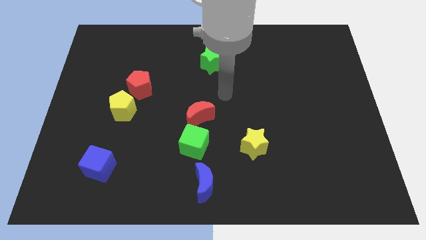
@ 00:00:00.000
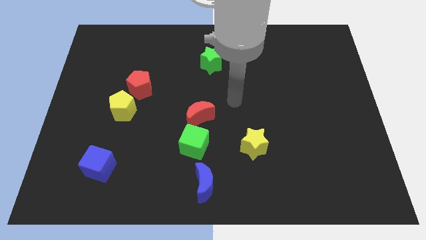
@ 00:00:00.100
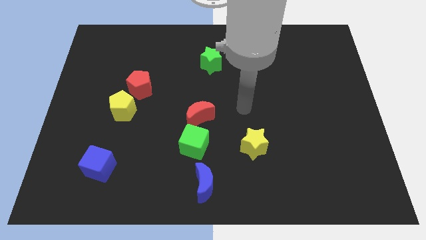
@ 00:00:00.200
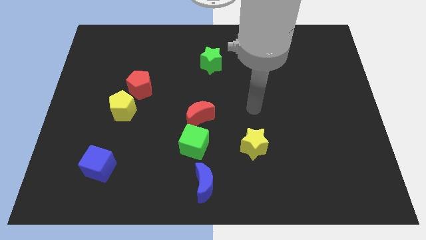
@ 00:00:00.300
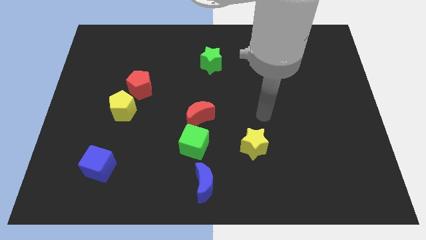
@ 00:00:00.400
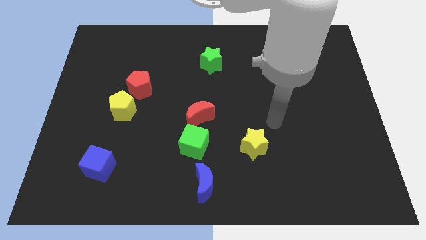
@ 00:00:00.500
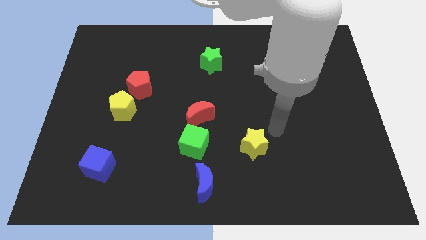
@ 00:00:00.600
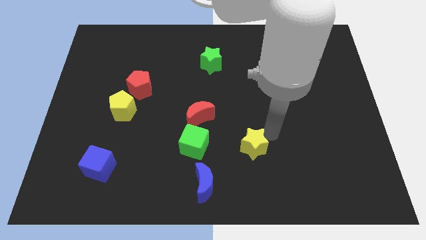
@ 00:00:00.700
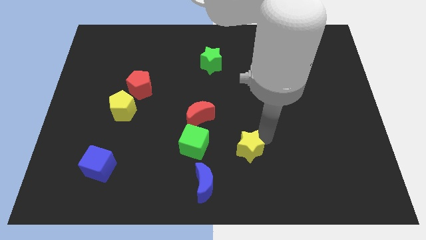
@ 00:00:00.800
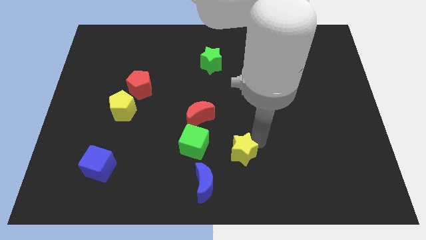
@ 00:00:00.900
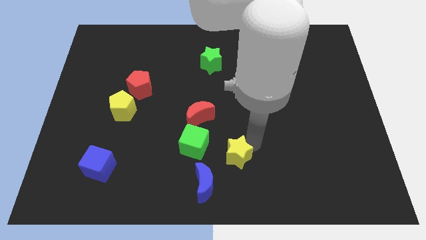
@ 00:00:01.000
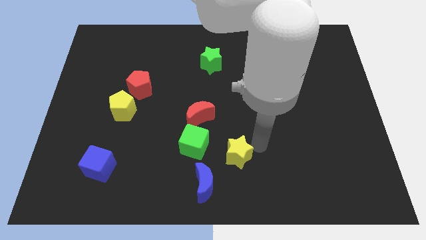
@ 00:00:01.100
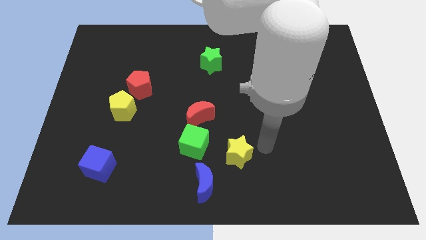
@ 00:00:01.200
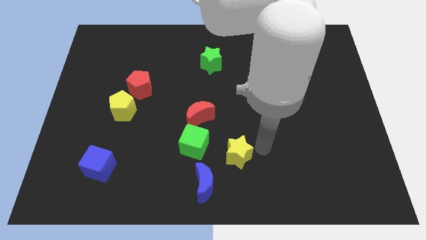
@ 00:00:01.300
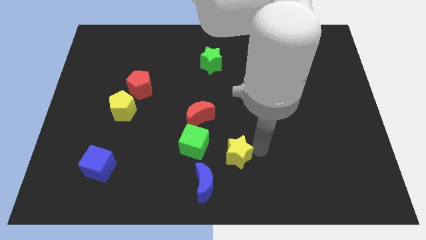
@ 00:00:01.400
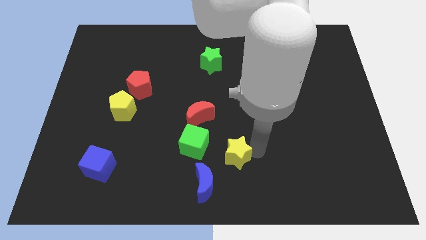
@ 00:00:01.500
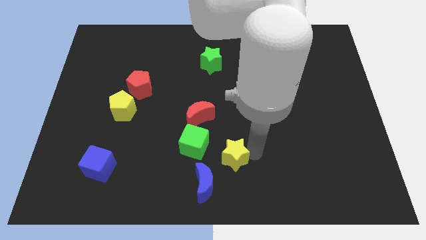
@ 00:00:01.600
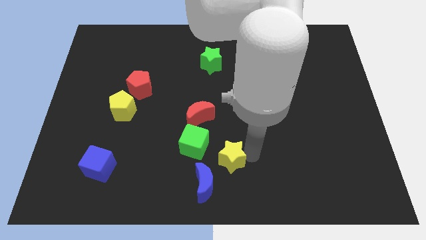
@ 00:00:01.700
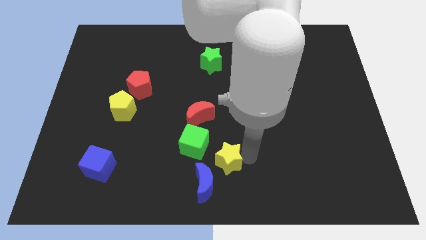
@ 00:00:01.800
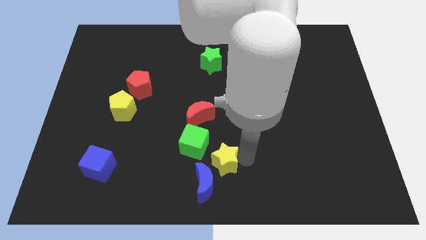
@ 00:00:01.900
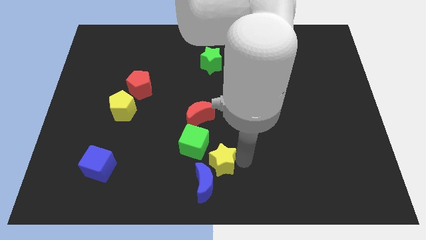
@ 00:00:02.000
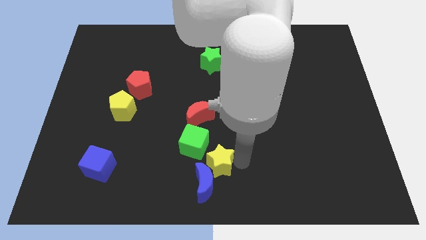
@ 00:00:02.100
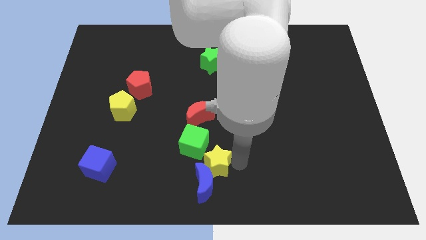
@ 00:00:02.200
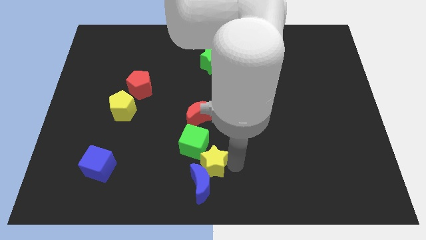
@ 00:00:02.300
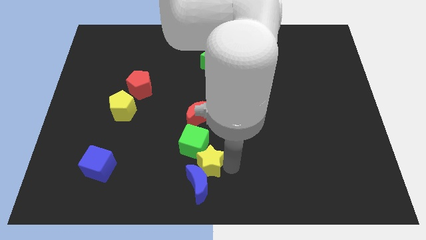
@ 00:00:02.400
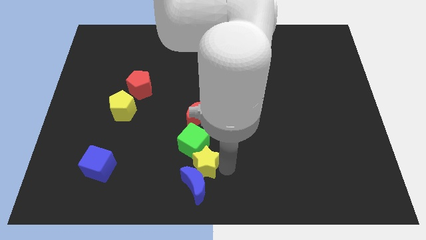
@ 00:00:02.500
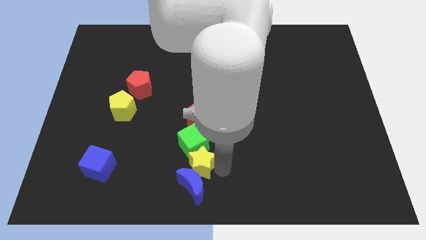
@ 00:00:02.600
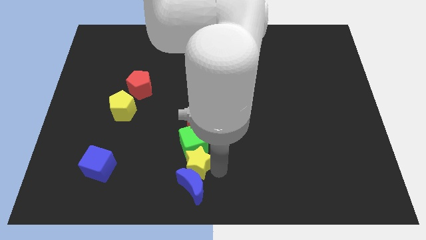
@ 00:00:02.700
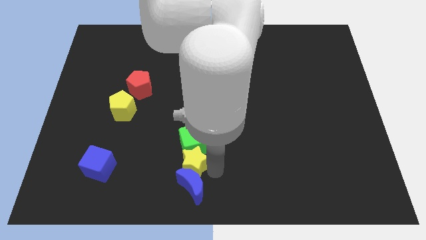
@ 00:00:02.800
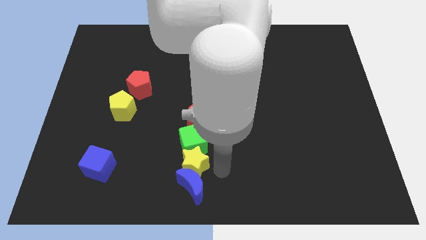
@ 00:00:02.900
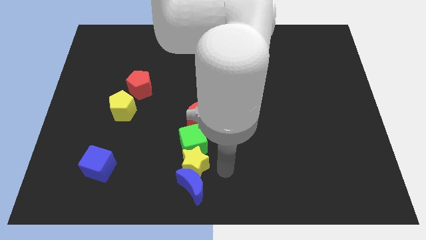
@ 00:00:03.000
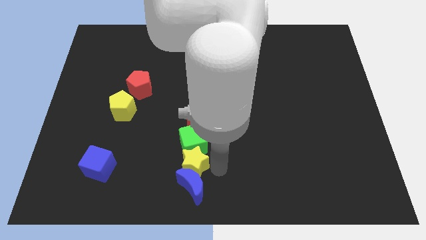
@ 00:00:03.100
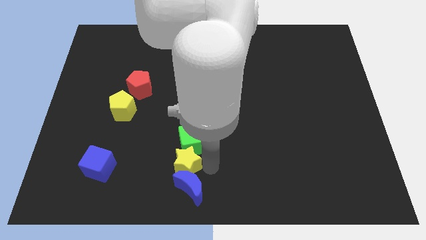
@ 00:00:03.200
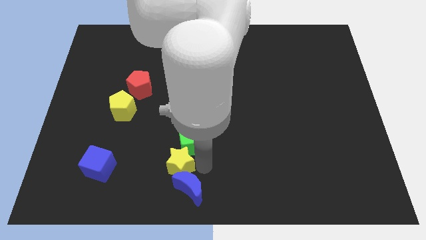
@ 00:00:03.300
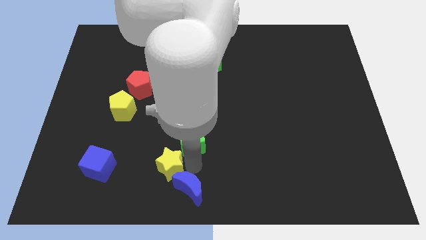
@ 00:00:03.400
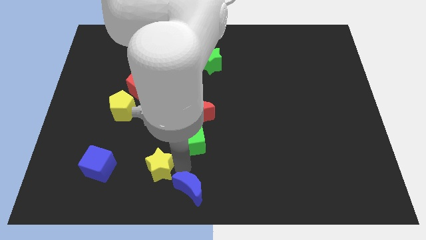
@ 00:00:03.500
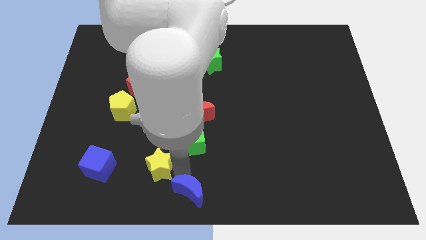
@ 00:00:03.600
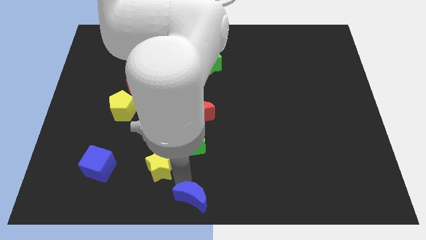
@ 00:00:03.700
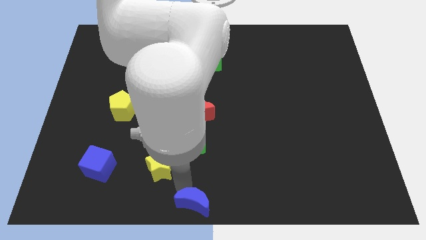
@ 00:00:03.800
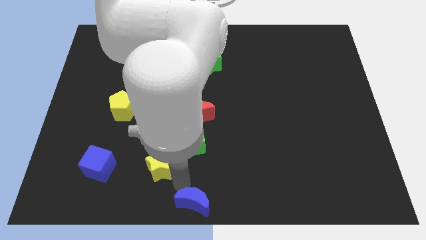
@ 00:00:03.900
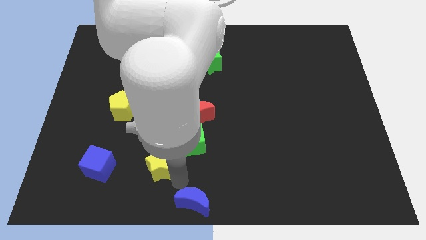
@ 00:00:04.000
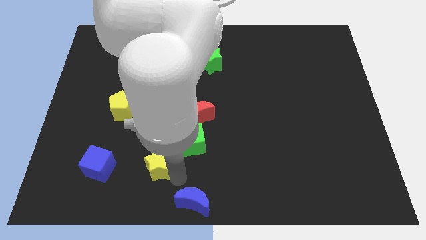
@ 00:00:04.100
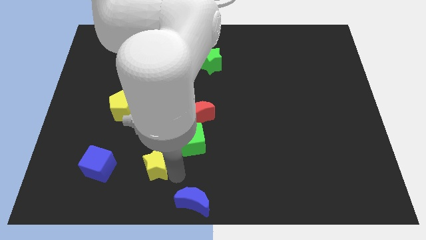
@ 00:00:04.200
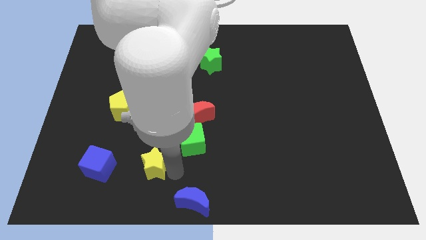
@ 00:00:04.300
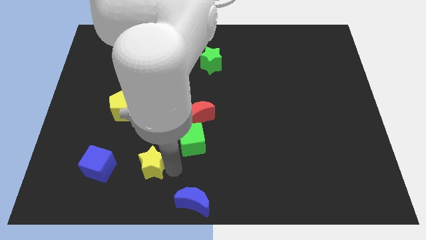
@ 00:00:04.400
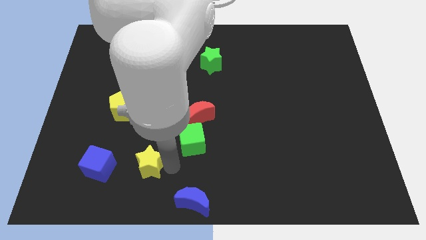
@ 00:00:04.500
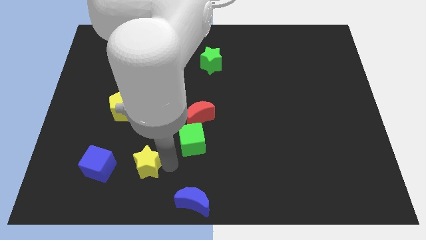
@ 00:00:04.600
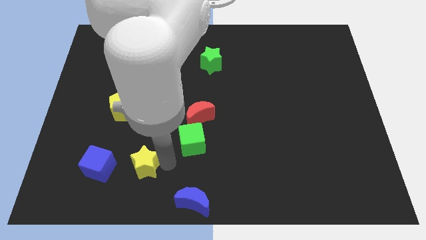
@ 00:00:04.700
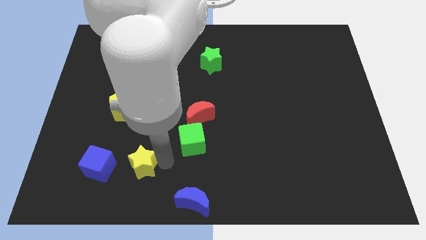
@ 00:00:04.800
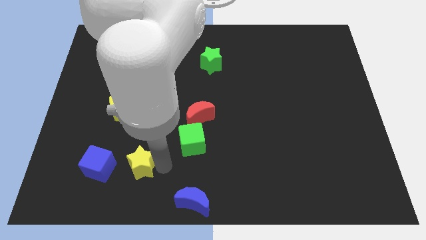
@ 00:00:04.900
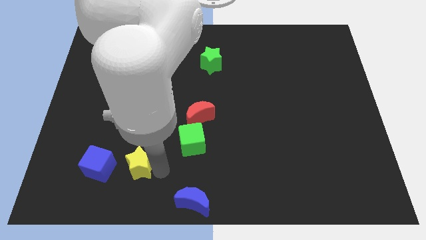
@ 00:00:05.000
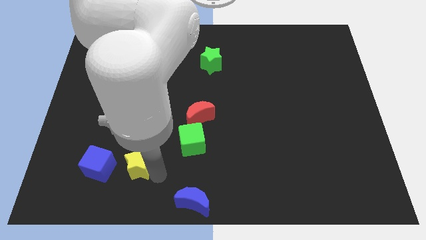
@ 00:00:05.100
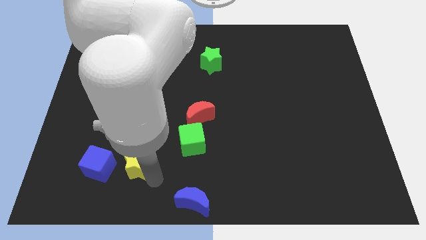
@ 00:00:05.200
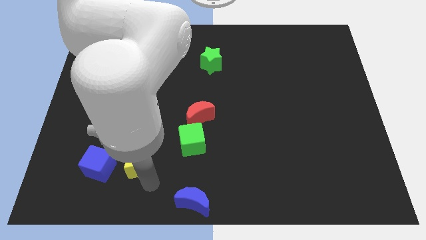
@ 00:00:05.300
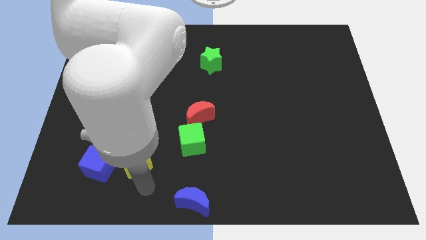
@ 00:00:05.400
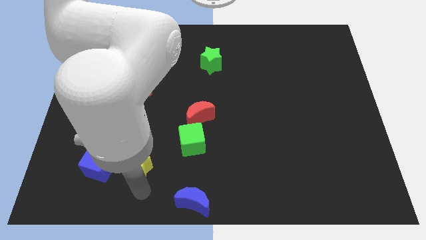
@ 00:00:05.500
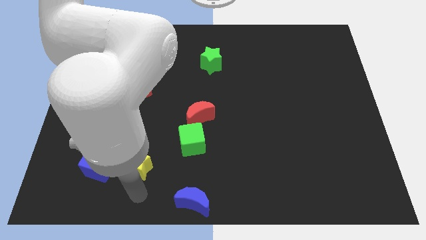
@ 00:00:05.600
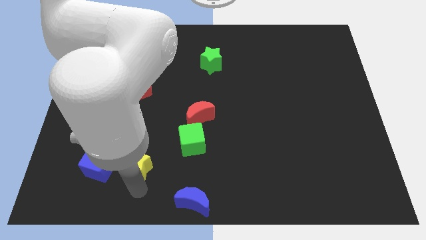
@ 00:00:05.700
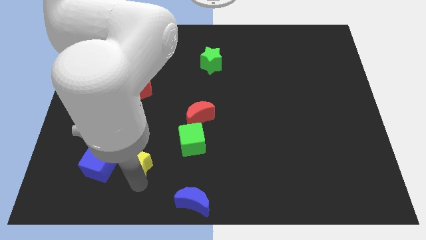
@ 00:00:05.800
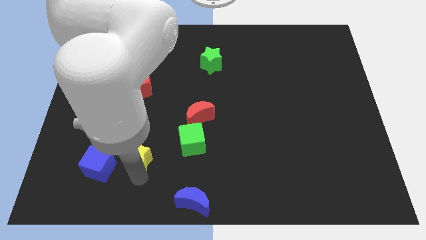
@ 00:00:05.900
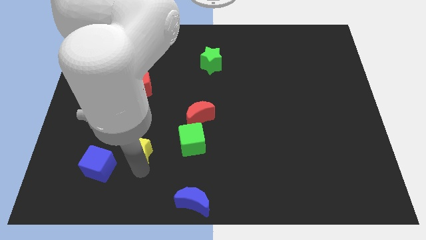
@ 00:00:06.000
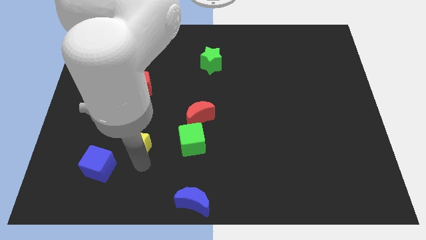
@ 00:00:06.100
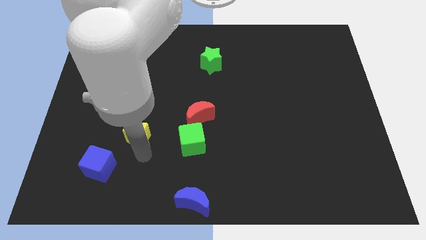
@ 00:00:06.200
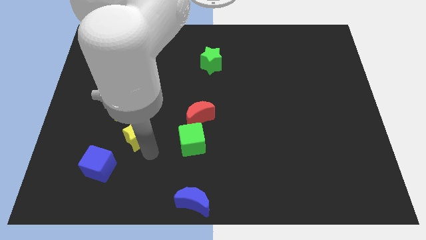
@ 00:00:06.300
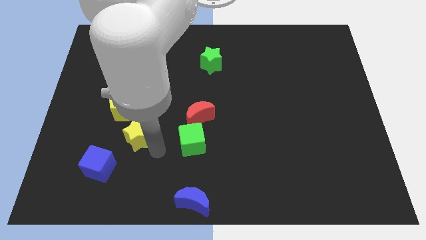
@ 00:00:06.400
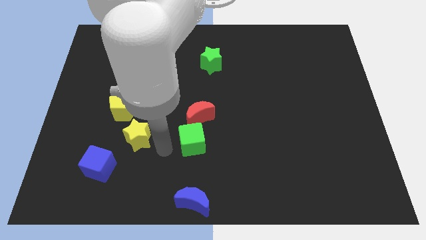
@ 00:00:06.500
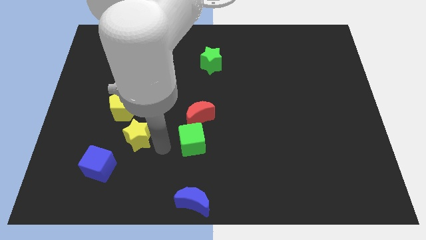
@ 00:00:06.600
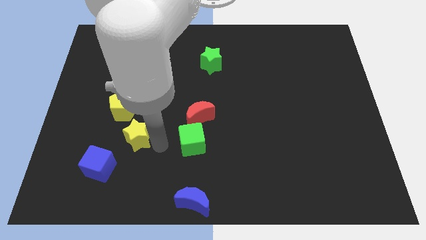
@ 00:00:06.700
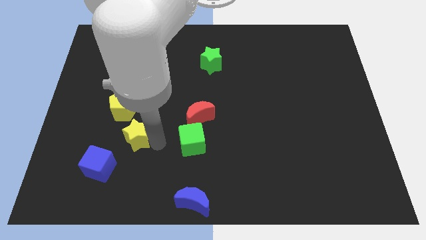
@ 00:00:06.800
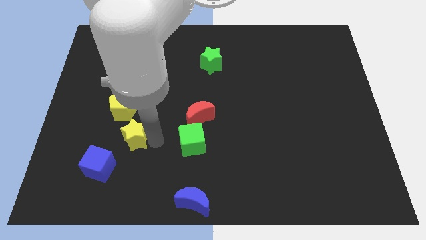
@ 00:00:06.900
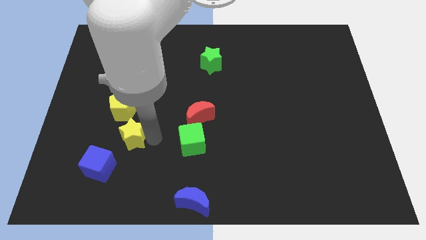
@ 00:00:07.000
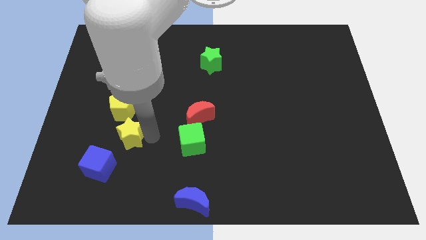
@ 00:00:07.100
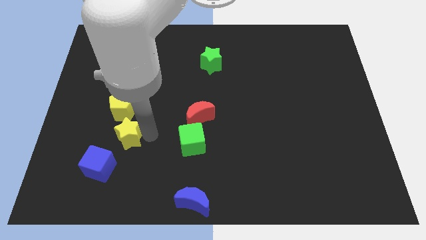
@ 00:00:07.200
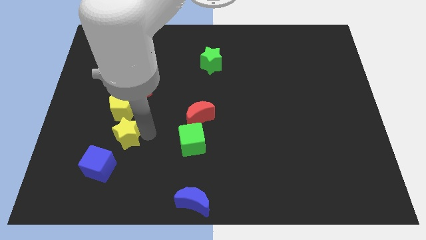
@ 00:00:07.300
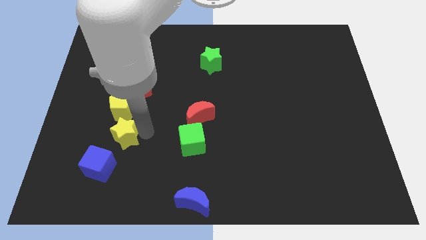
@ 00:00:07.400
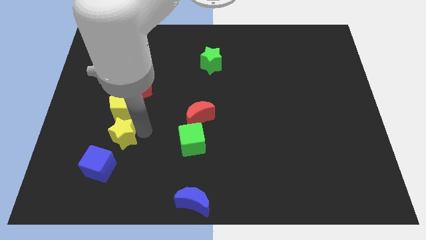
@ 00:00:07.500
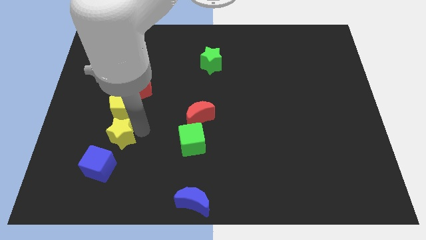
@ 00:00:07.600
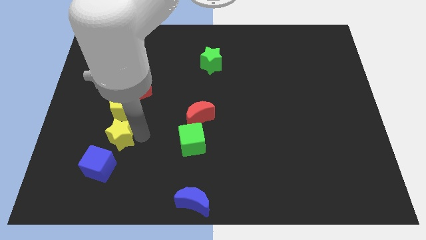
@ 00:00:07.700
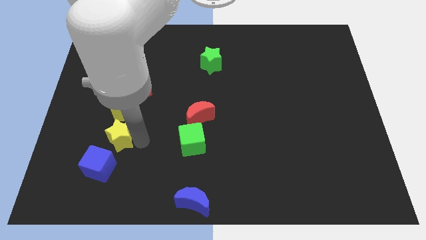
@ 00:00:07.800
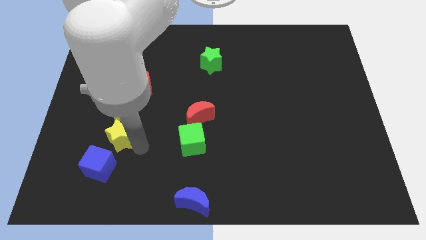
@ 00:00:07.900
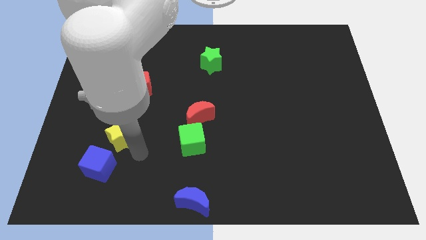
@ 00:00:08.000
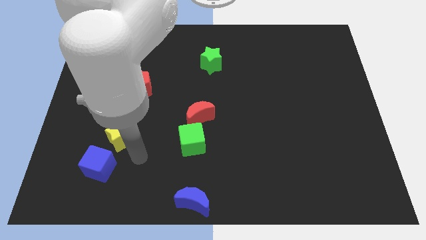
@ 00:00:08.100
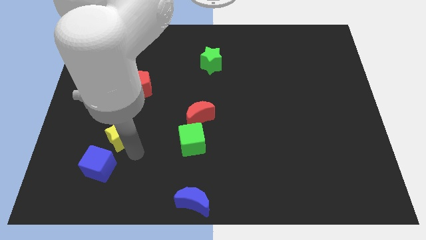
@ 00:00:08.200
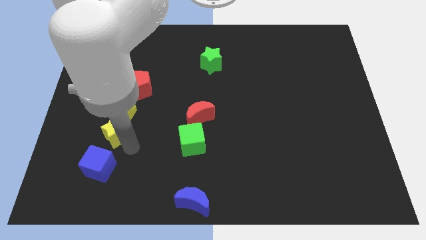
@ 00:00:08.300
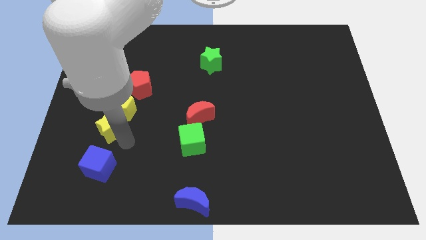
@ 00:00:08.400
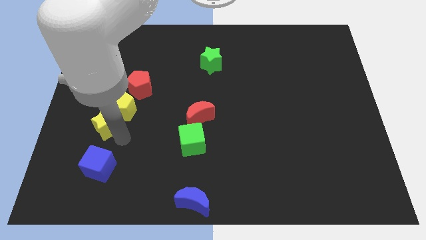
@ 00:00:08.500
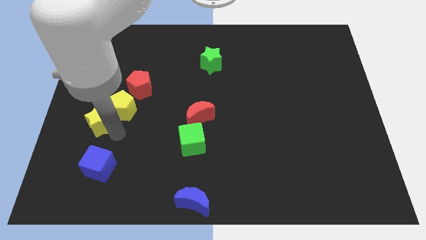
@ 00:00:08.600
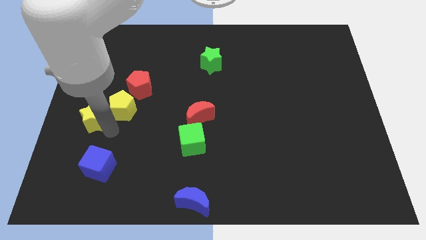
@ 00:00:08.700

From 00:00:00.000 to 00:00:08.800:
move the yellow star to the left side of the board
